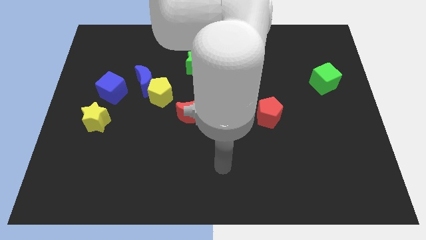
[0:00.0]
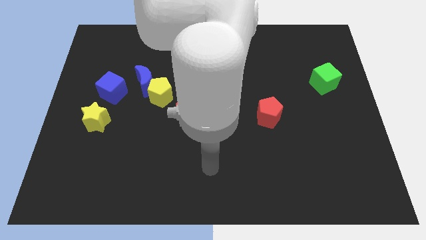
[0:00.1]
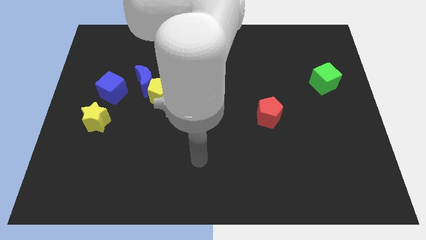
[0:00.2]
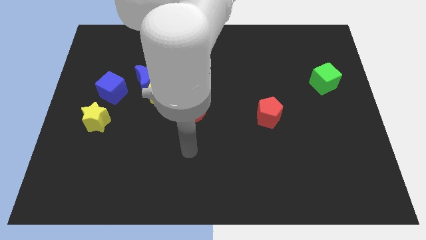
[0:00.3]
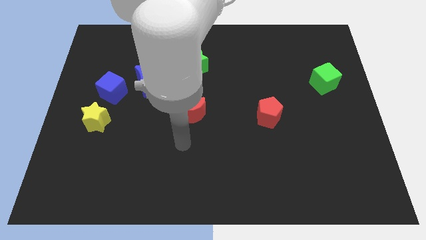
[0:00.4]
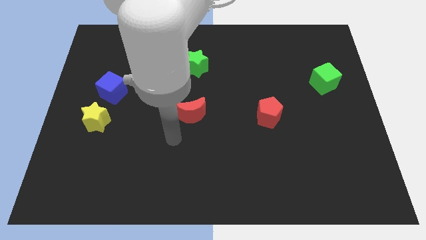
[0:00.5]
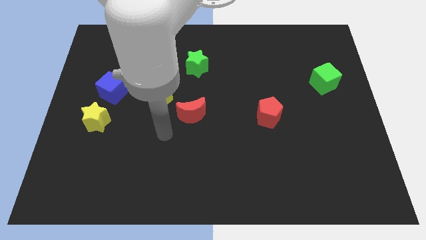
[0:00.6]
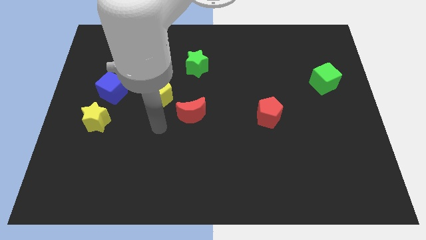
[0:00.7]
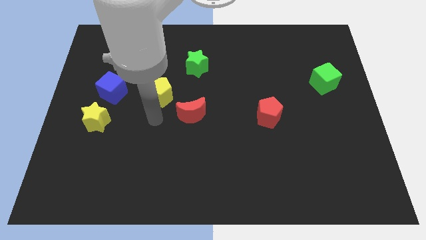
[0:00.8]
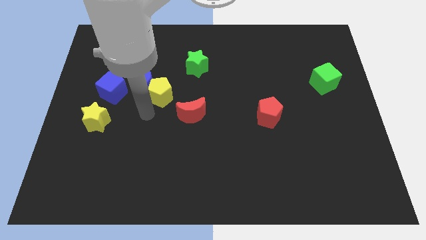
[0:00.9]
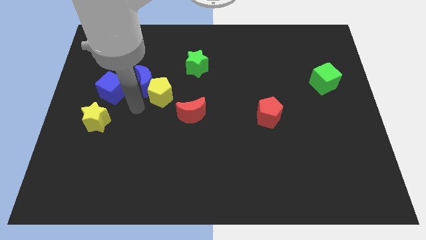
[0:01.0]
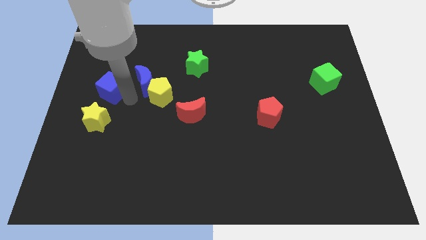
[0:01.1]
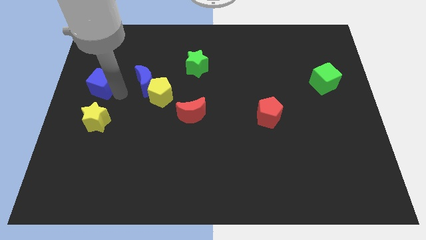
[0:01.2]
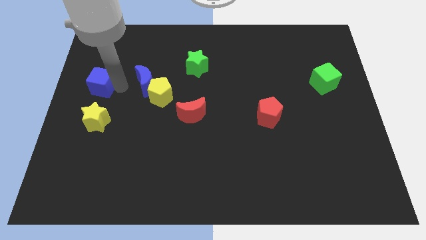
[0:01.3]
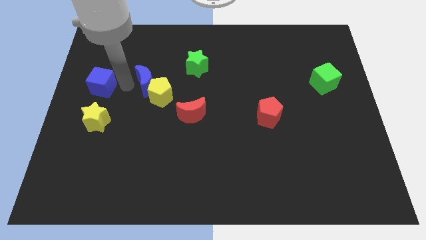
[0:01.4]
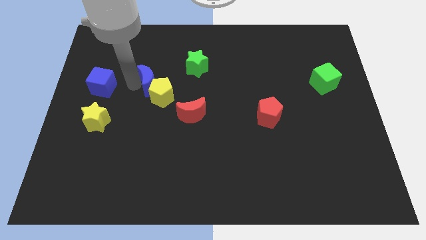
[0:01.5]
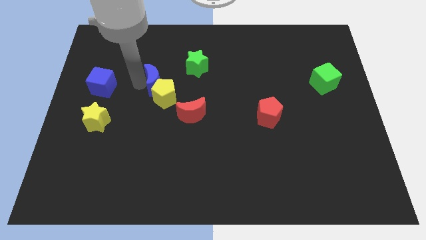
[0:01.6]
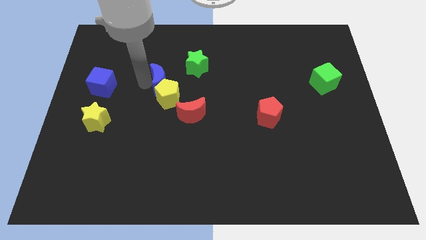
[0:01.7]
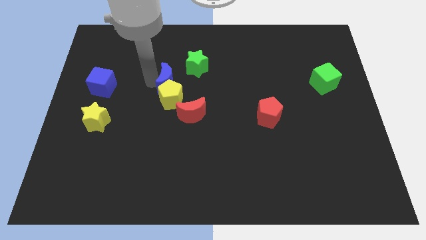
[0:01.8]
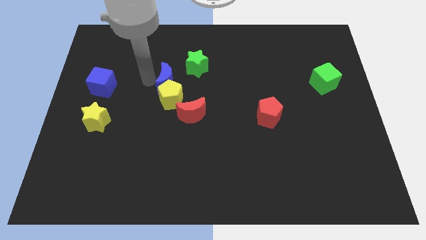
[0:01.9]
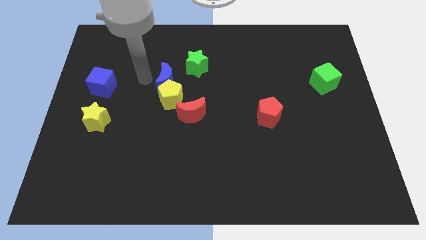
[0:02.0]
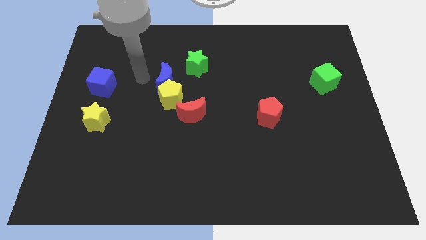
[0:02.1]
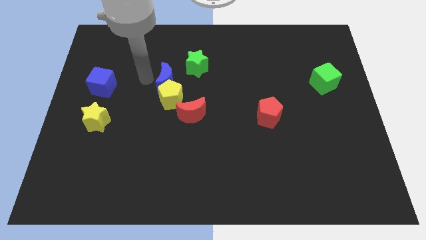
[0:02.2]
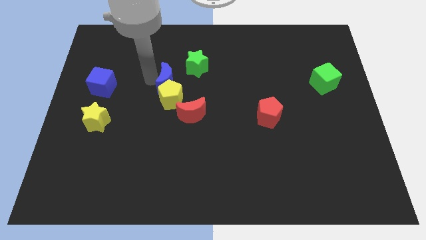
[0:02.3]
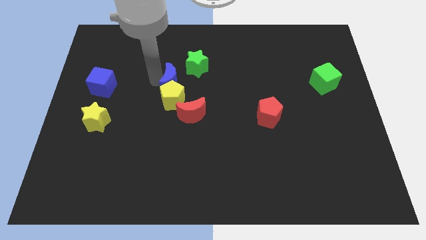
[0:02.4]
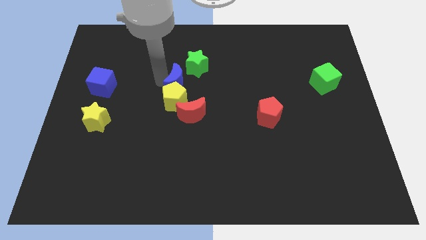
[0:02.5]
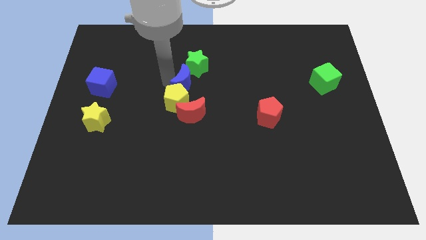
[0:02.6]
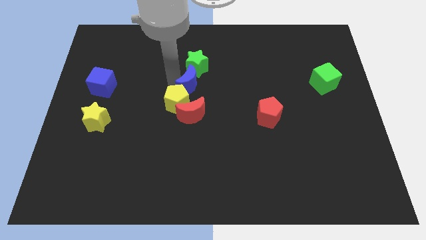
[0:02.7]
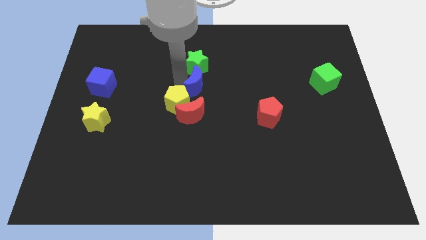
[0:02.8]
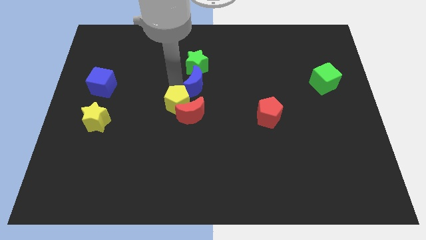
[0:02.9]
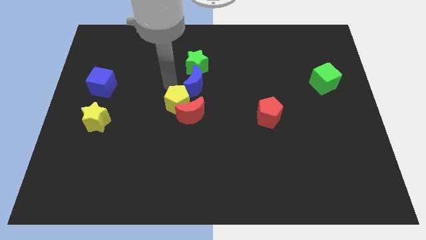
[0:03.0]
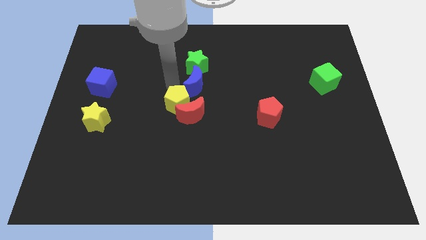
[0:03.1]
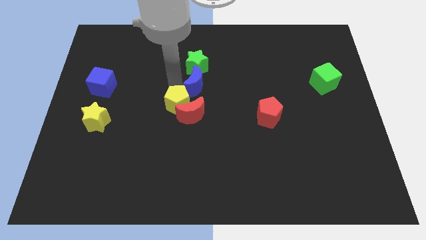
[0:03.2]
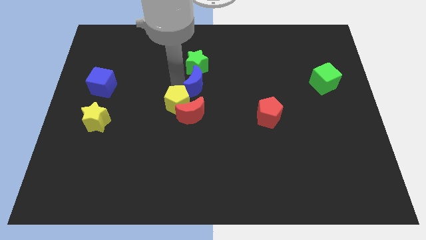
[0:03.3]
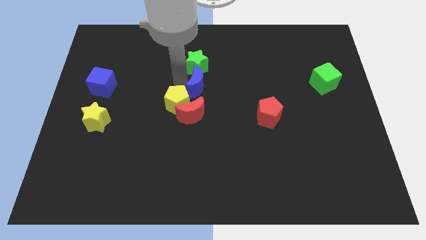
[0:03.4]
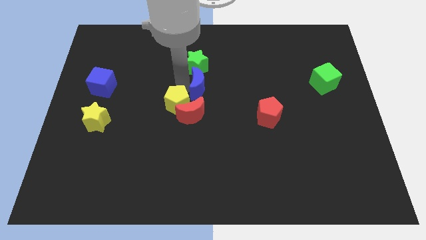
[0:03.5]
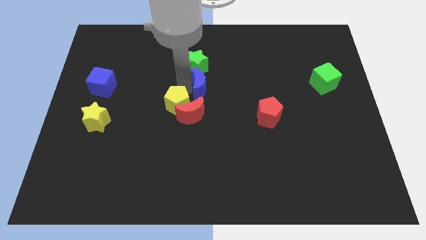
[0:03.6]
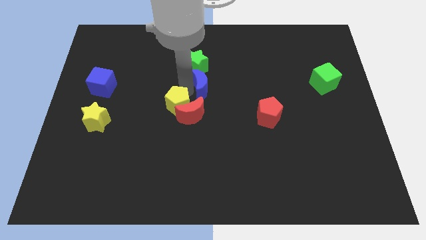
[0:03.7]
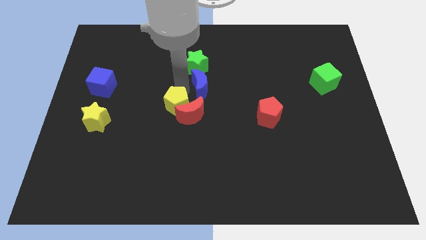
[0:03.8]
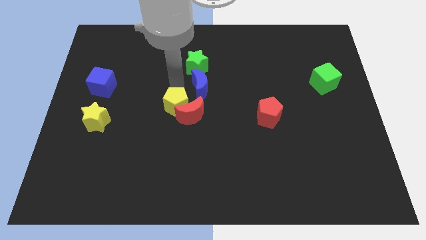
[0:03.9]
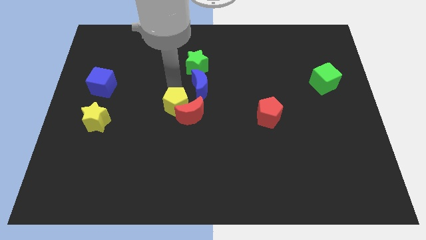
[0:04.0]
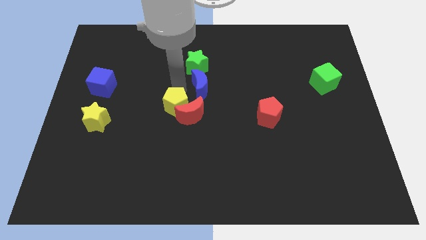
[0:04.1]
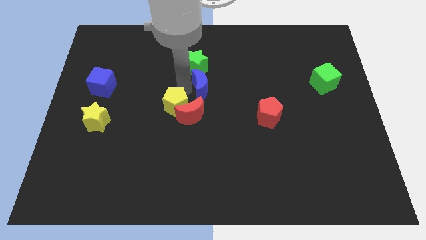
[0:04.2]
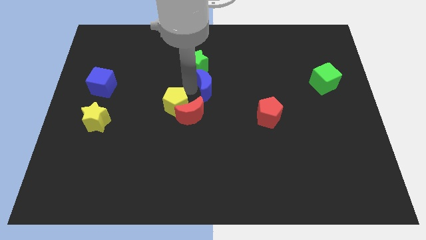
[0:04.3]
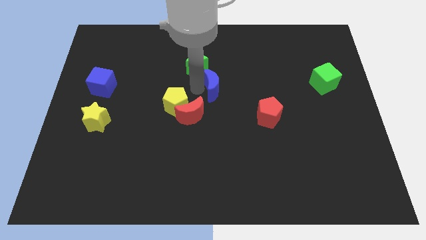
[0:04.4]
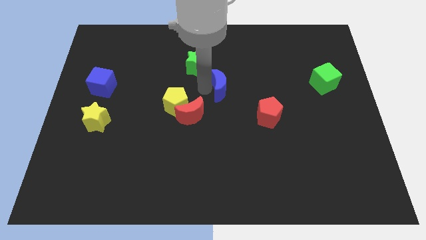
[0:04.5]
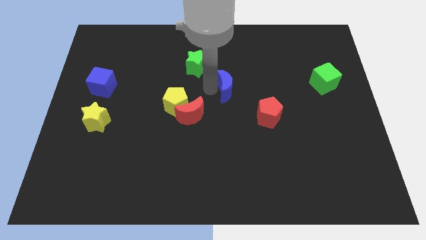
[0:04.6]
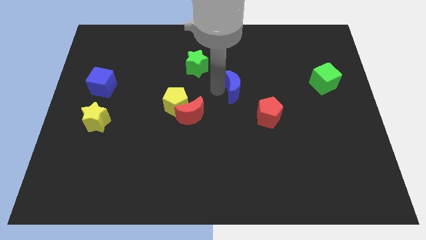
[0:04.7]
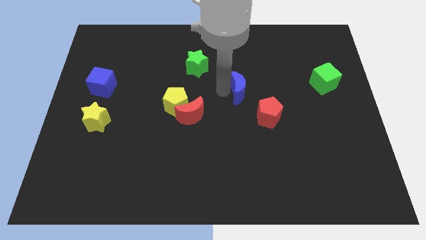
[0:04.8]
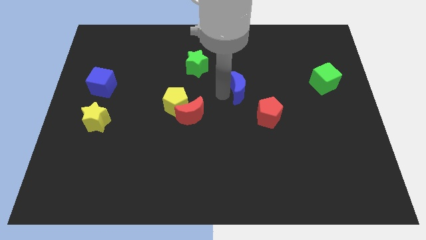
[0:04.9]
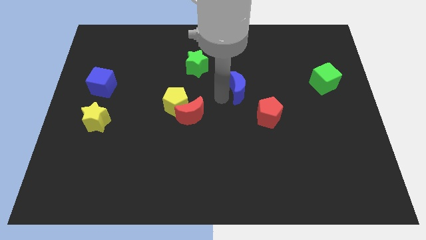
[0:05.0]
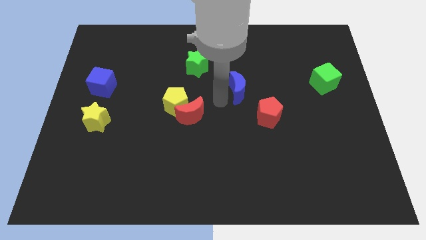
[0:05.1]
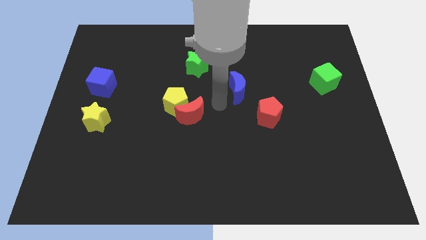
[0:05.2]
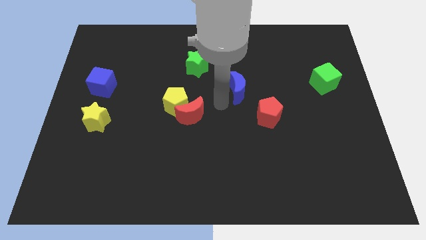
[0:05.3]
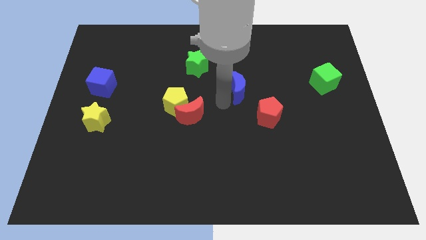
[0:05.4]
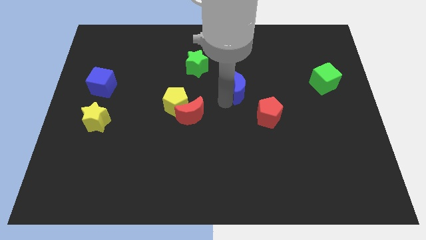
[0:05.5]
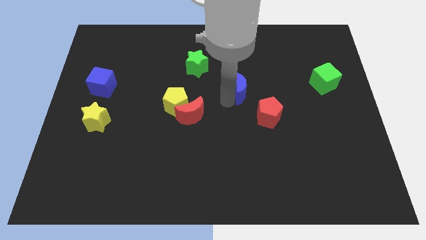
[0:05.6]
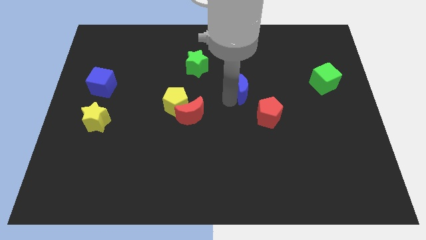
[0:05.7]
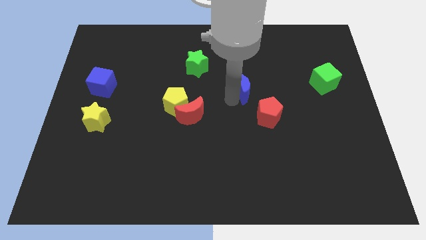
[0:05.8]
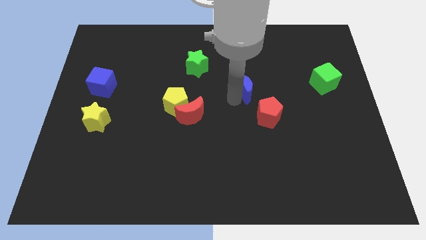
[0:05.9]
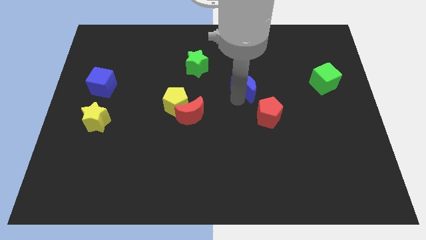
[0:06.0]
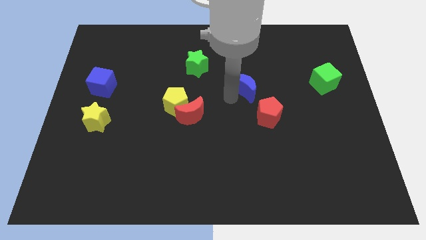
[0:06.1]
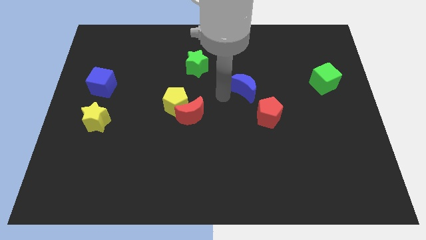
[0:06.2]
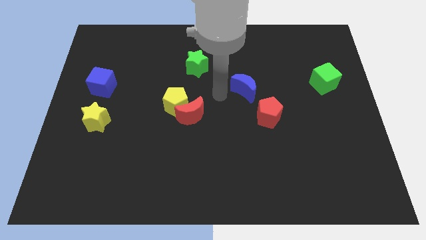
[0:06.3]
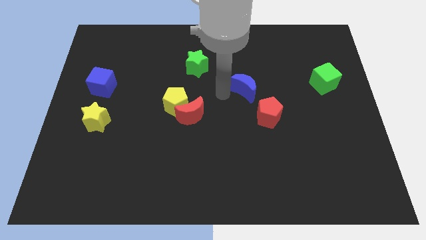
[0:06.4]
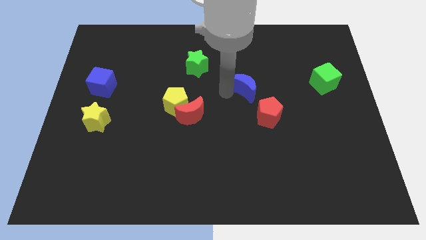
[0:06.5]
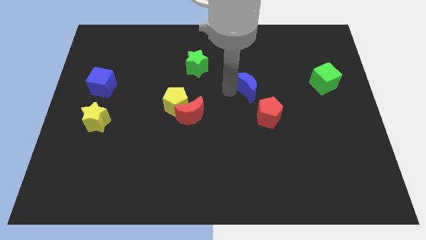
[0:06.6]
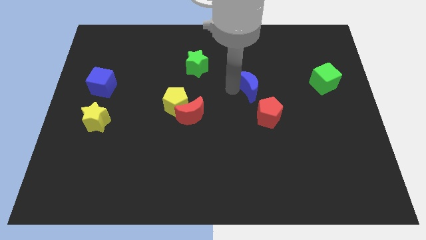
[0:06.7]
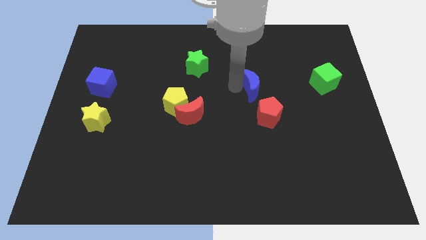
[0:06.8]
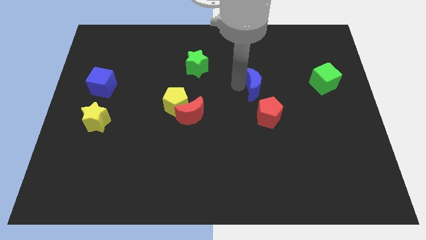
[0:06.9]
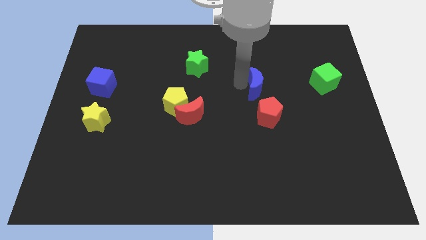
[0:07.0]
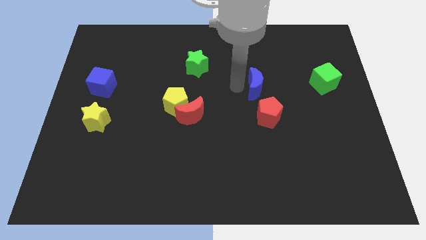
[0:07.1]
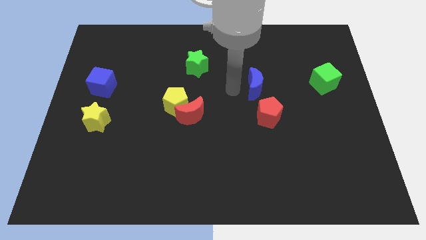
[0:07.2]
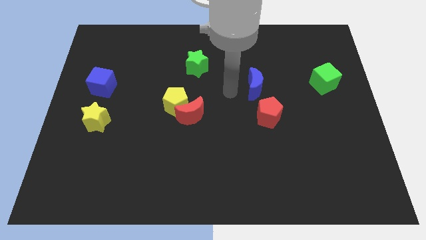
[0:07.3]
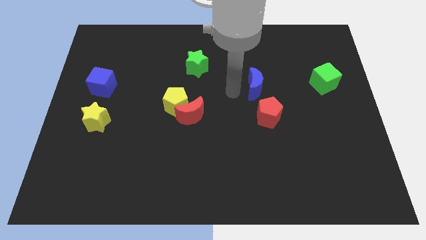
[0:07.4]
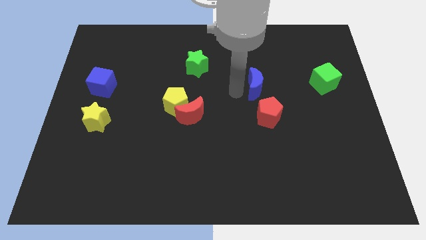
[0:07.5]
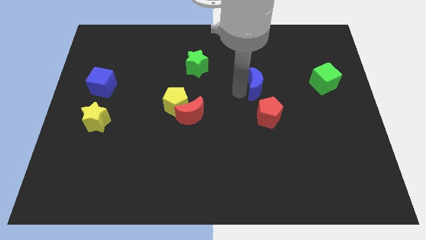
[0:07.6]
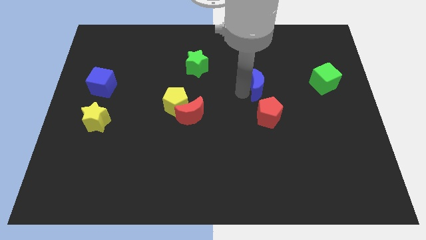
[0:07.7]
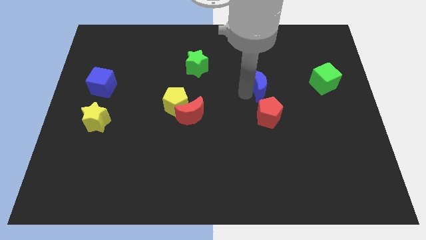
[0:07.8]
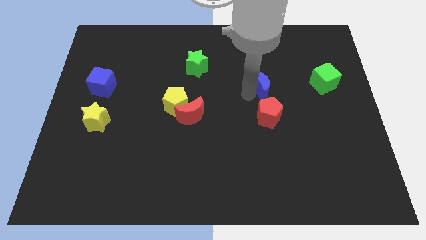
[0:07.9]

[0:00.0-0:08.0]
push the blue moon left of the green cube
